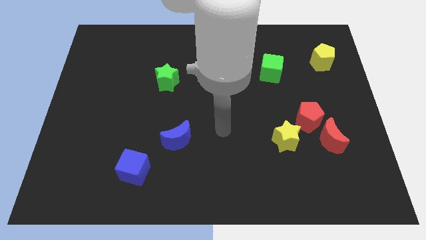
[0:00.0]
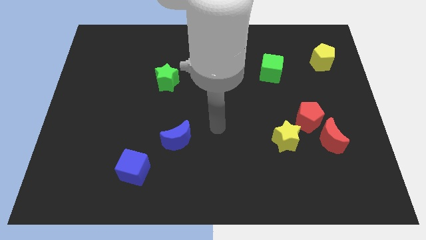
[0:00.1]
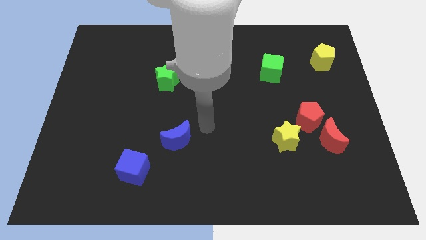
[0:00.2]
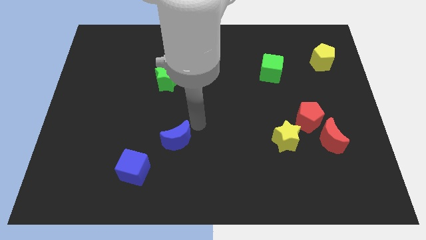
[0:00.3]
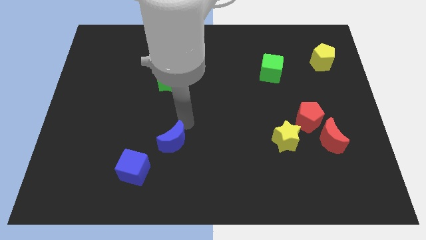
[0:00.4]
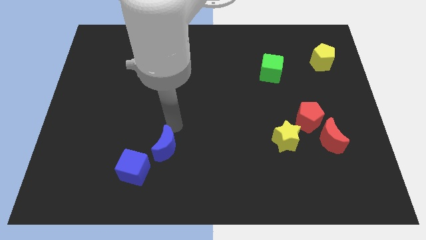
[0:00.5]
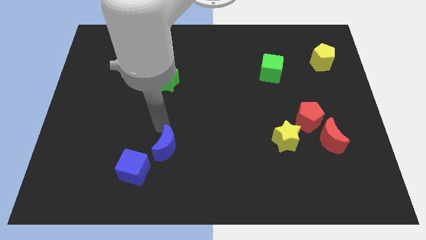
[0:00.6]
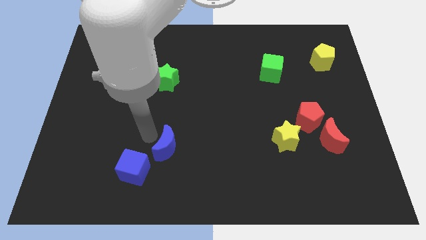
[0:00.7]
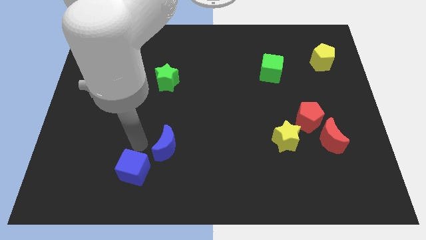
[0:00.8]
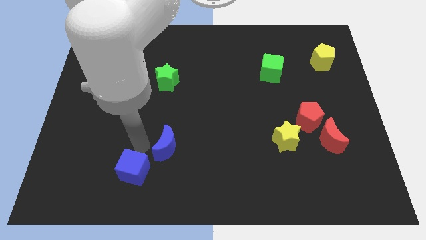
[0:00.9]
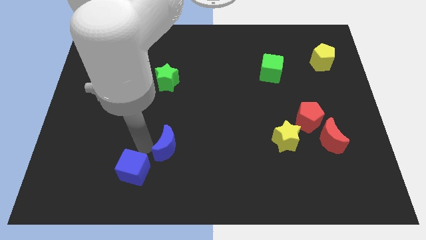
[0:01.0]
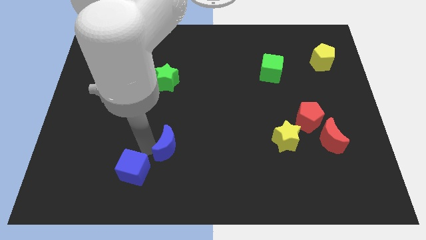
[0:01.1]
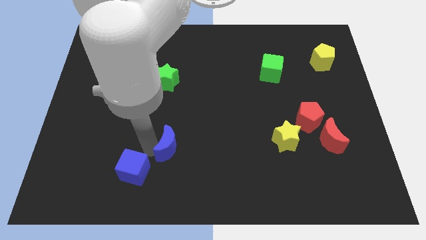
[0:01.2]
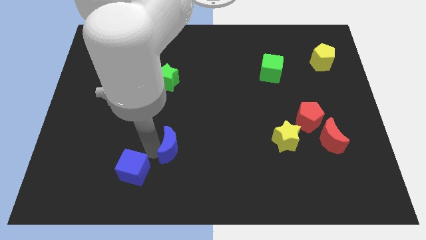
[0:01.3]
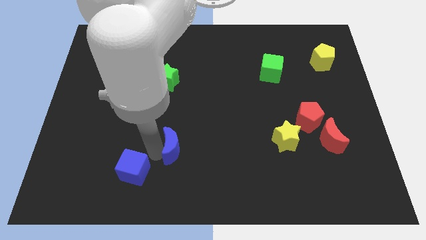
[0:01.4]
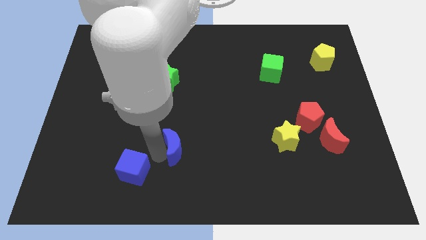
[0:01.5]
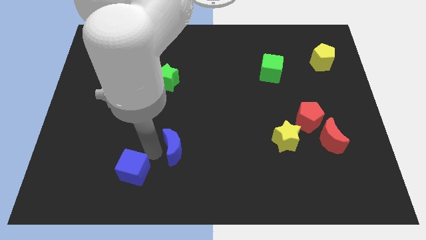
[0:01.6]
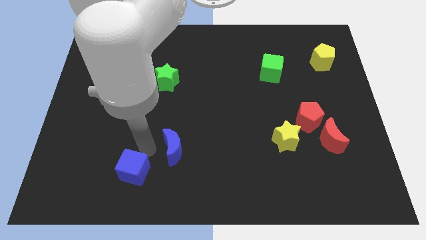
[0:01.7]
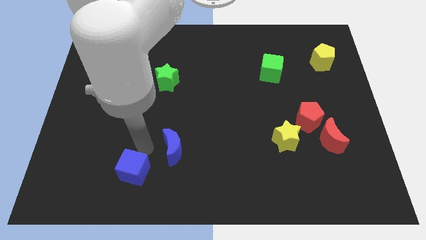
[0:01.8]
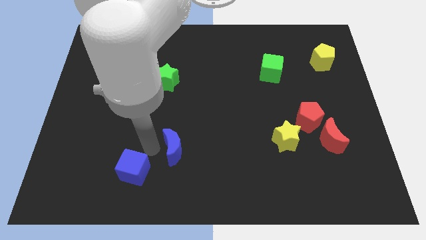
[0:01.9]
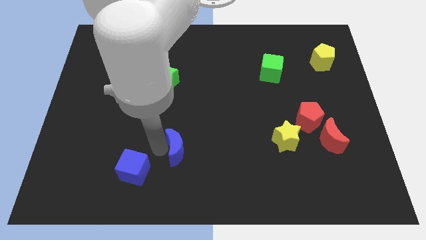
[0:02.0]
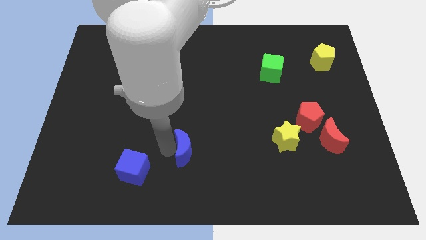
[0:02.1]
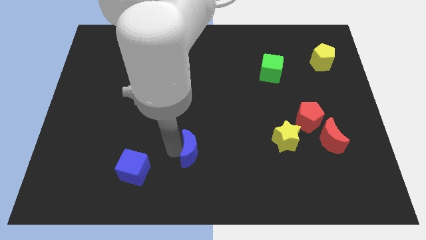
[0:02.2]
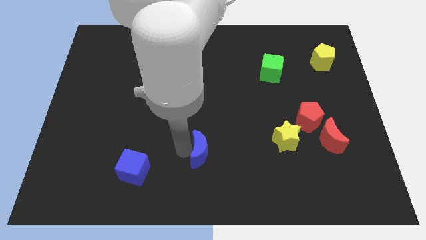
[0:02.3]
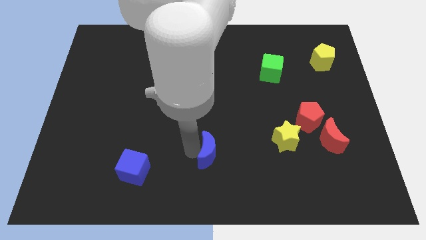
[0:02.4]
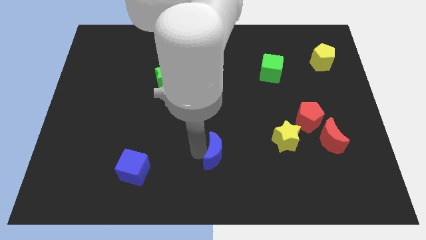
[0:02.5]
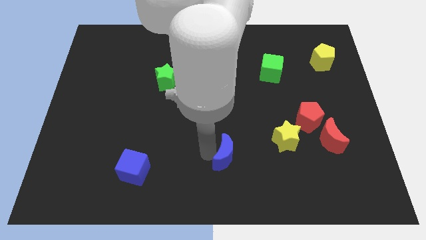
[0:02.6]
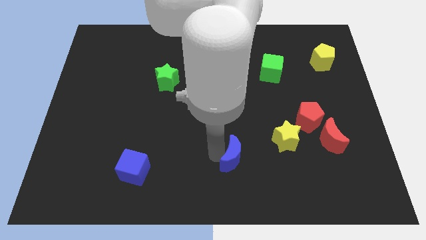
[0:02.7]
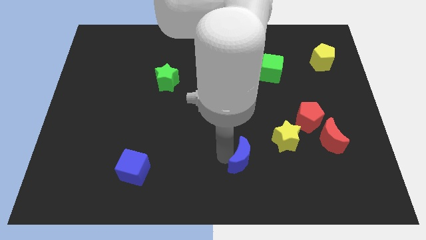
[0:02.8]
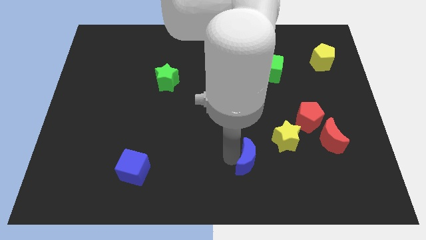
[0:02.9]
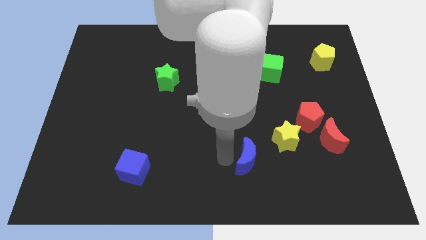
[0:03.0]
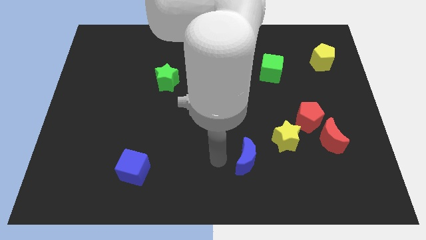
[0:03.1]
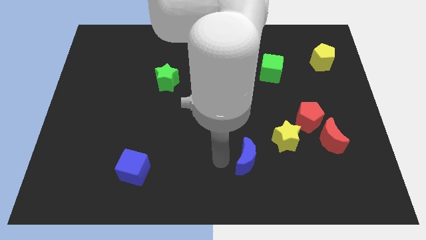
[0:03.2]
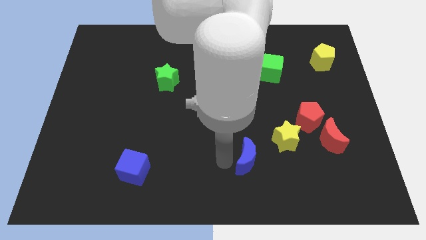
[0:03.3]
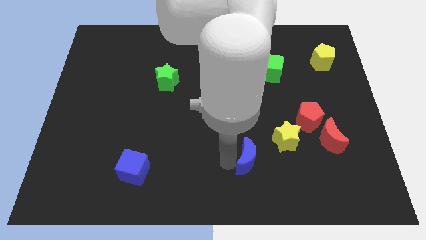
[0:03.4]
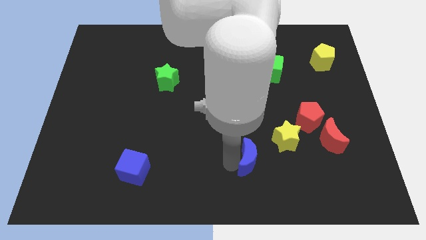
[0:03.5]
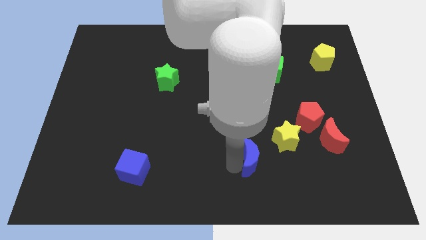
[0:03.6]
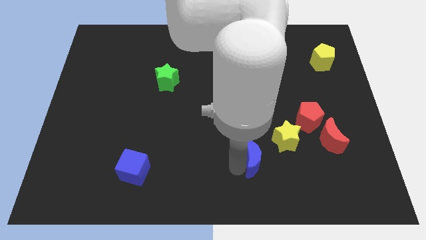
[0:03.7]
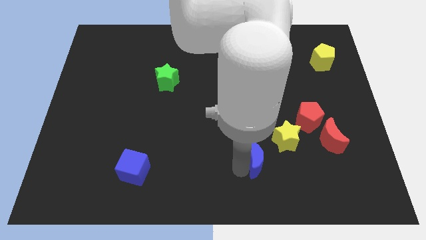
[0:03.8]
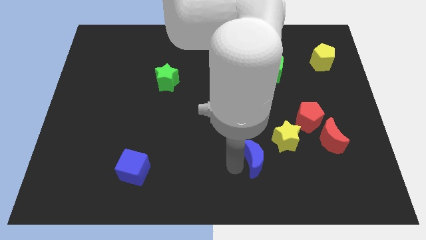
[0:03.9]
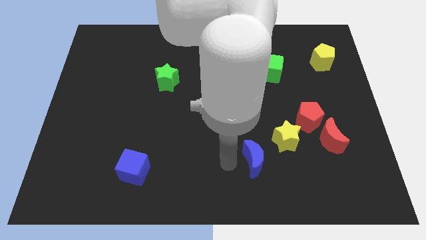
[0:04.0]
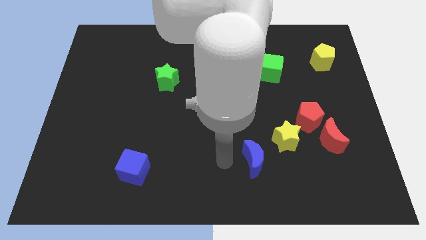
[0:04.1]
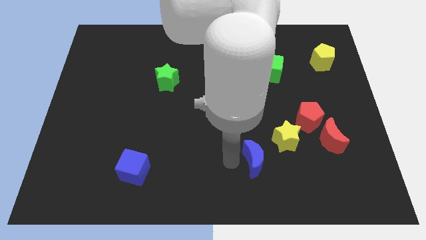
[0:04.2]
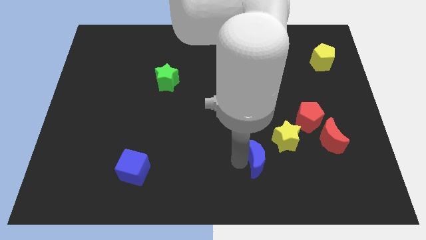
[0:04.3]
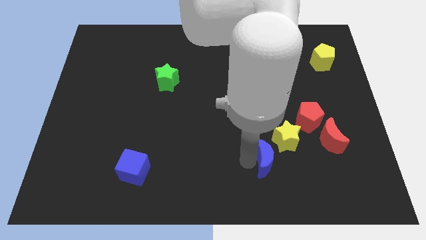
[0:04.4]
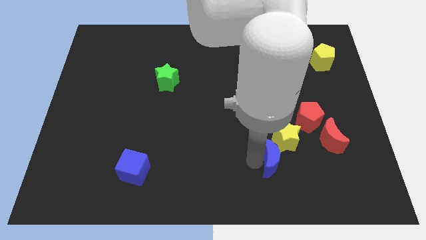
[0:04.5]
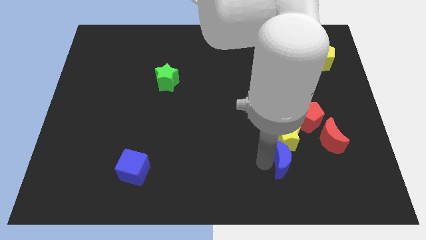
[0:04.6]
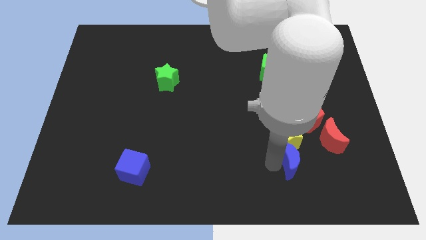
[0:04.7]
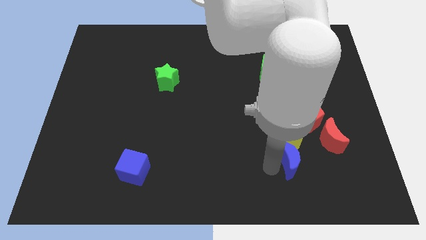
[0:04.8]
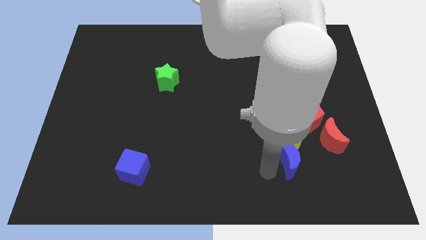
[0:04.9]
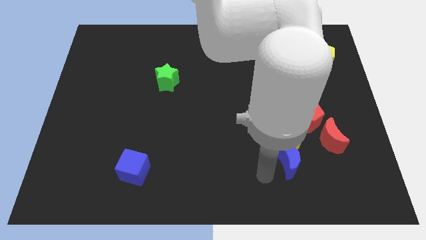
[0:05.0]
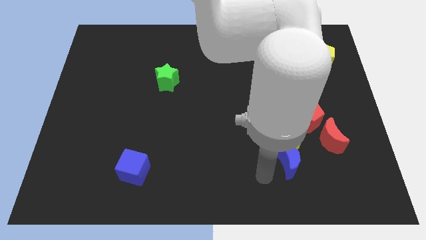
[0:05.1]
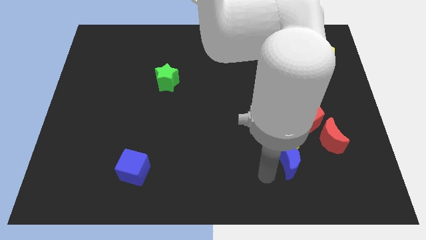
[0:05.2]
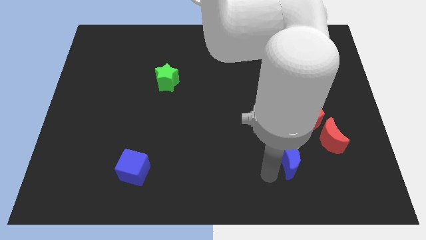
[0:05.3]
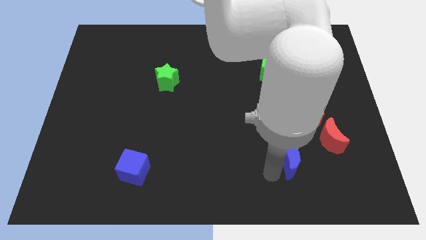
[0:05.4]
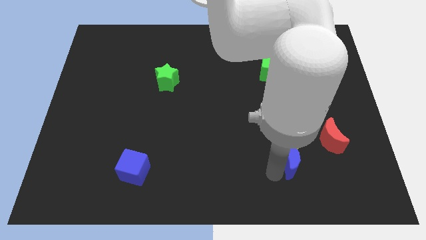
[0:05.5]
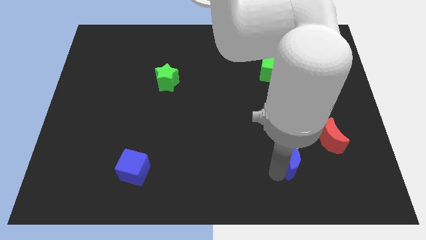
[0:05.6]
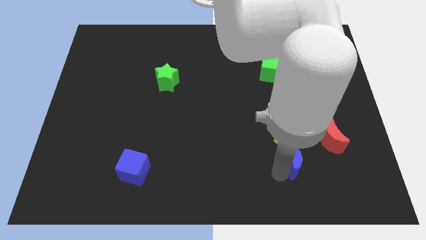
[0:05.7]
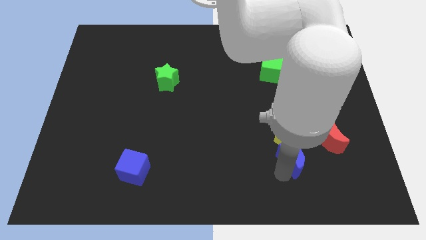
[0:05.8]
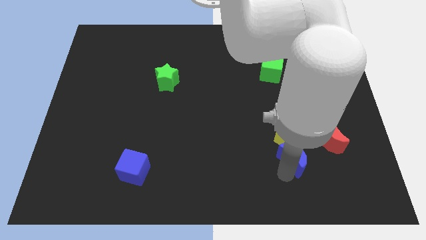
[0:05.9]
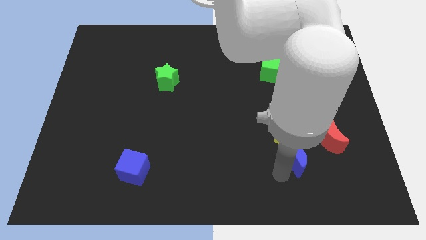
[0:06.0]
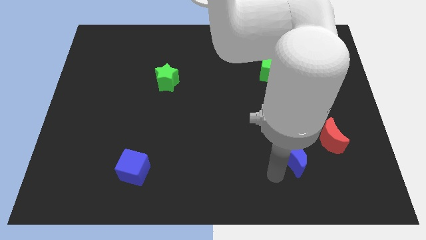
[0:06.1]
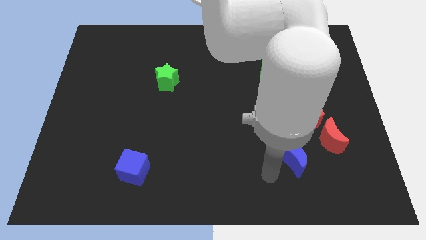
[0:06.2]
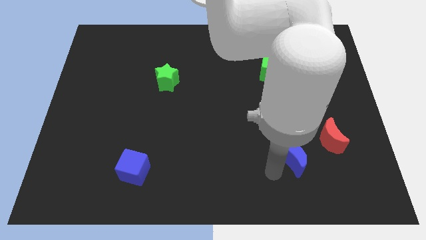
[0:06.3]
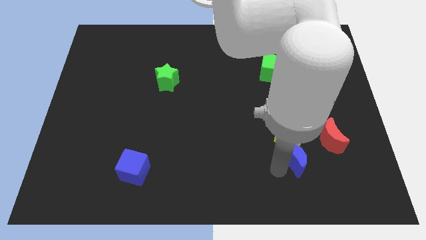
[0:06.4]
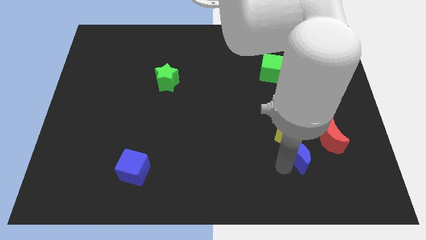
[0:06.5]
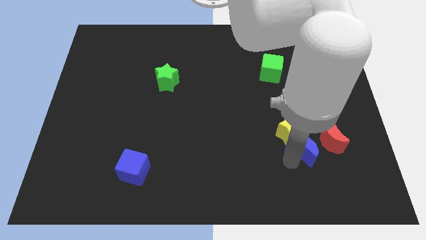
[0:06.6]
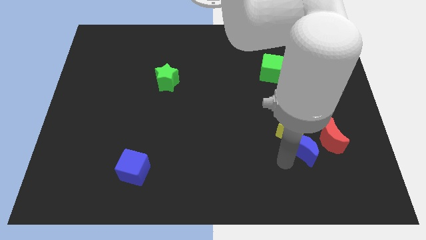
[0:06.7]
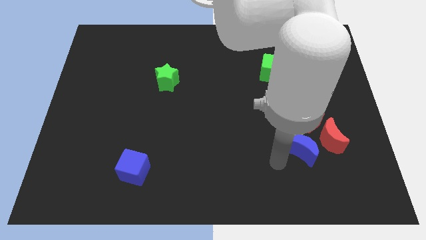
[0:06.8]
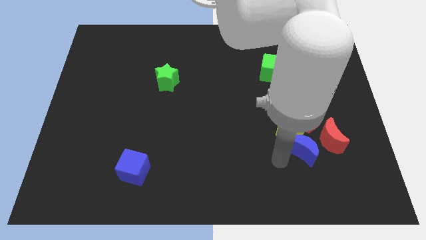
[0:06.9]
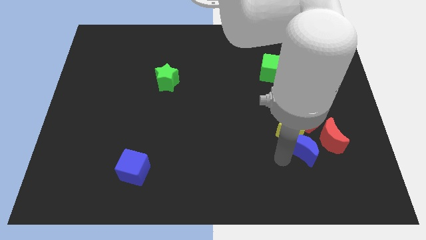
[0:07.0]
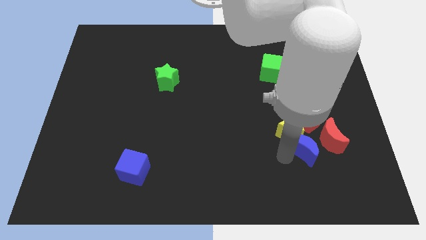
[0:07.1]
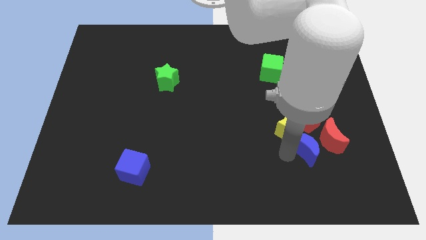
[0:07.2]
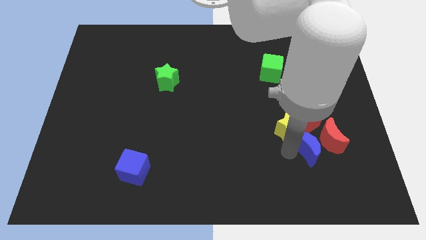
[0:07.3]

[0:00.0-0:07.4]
slide the blue moon to the red moon
